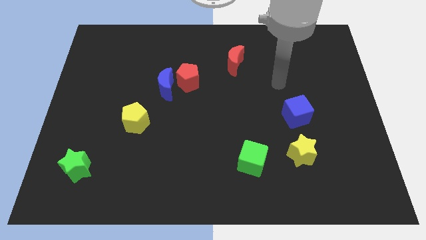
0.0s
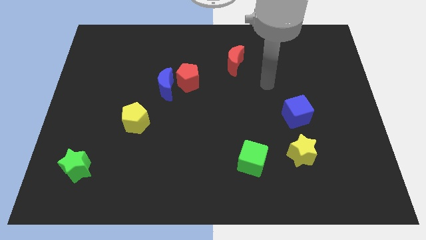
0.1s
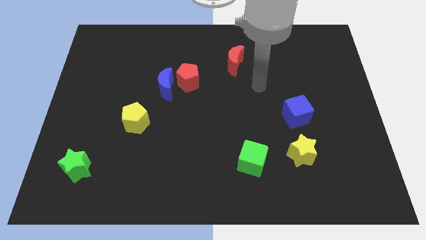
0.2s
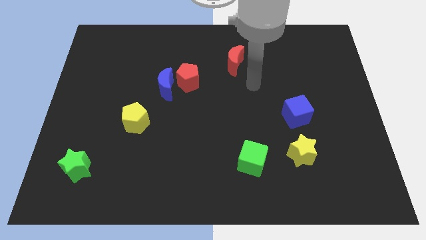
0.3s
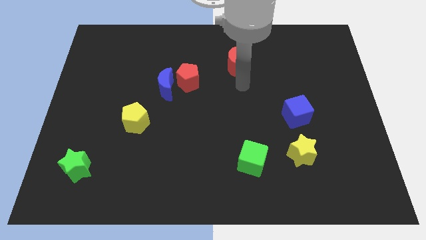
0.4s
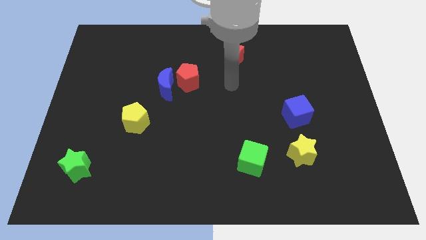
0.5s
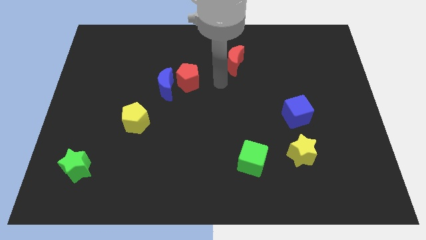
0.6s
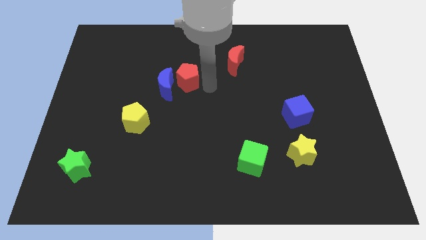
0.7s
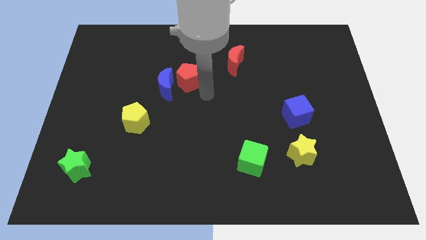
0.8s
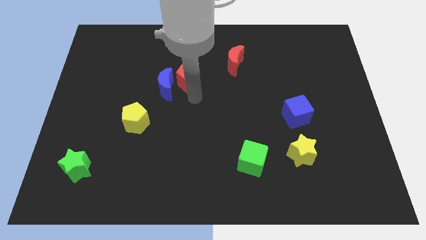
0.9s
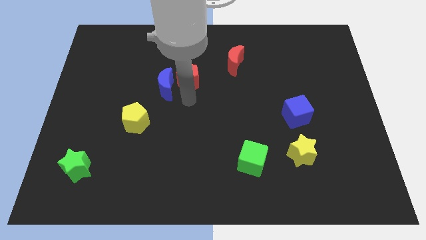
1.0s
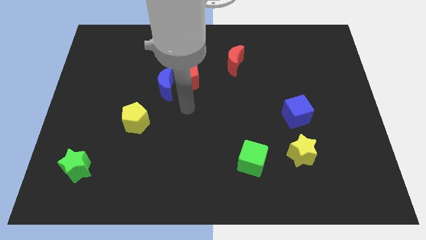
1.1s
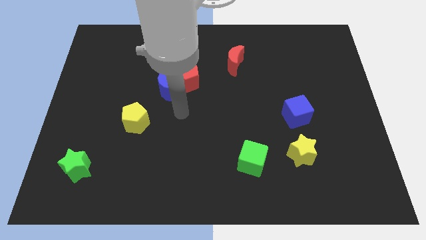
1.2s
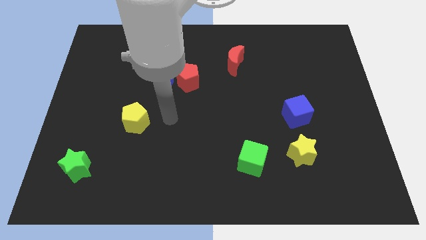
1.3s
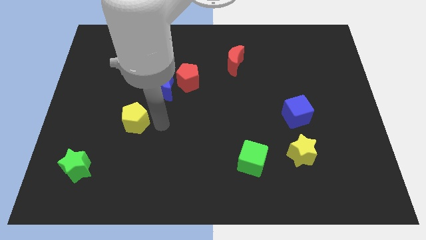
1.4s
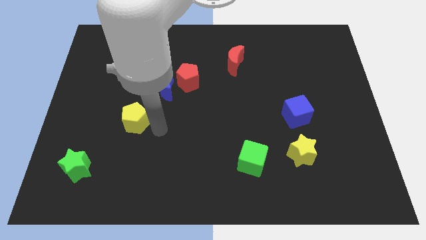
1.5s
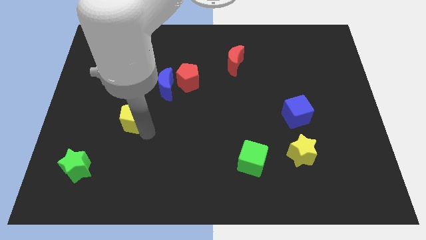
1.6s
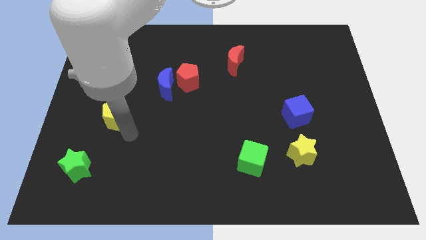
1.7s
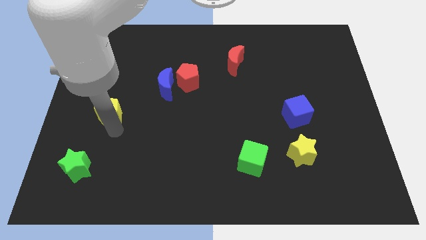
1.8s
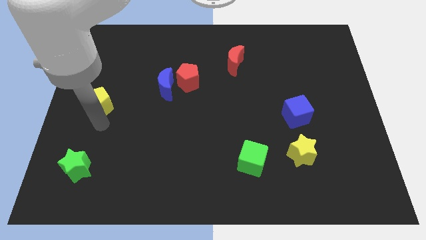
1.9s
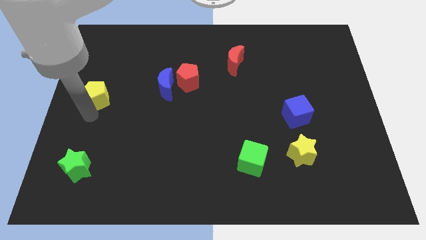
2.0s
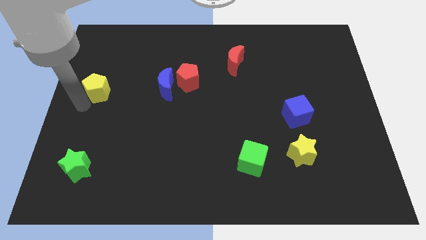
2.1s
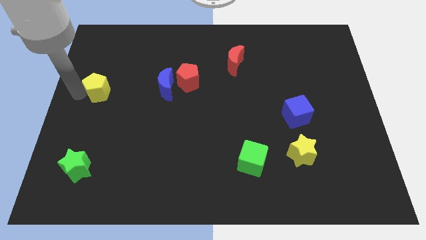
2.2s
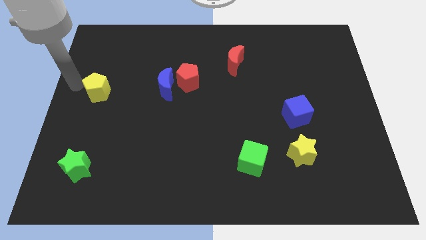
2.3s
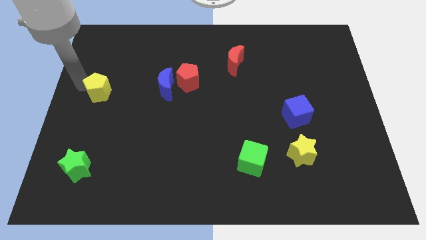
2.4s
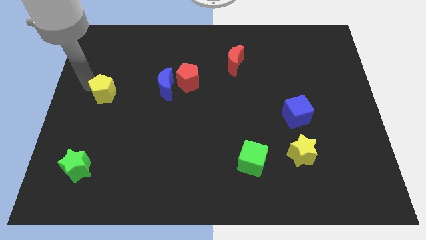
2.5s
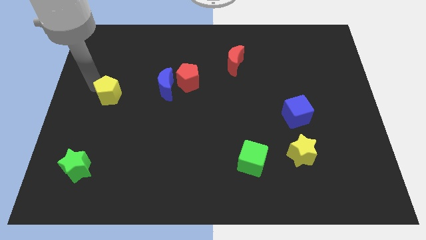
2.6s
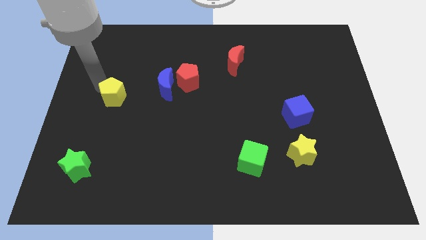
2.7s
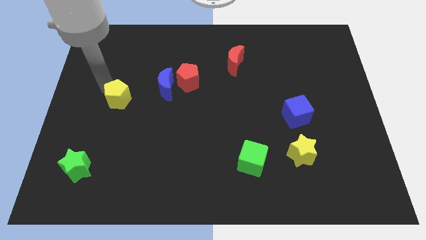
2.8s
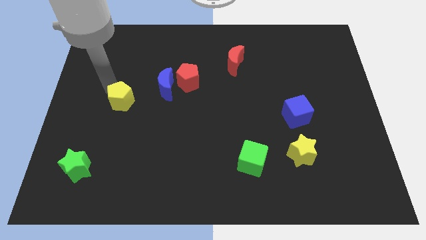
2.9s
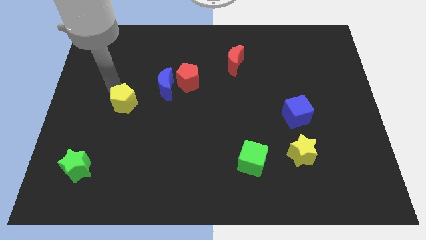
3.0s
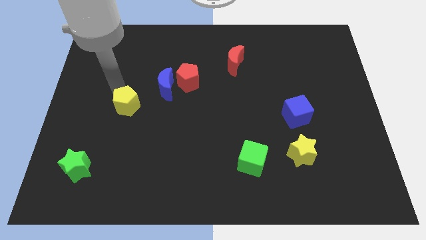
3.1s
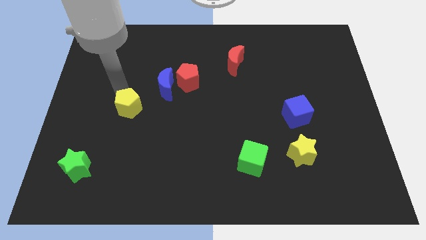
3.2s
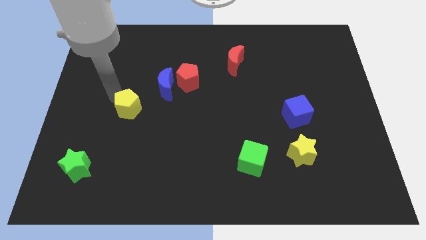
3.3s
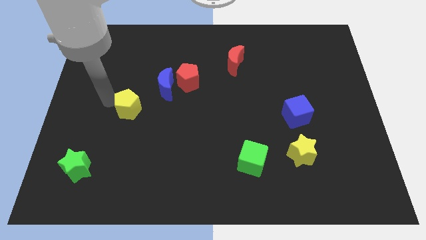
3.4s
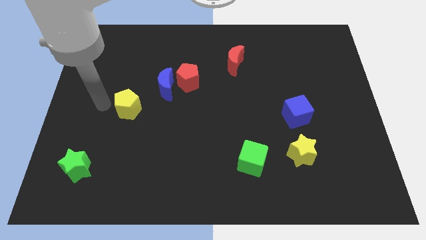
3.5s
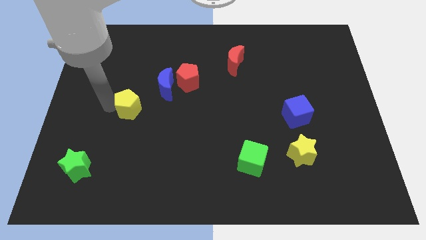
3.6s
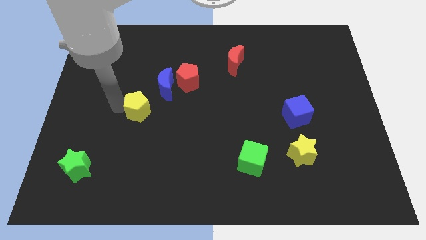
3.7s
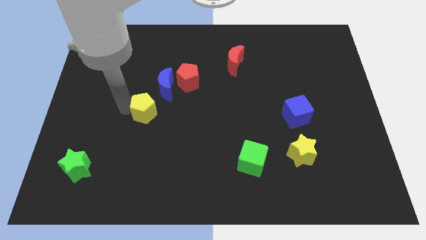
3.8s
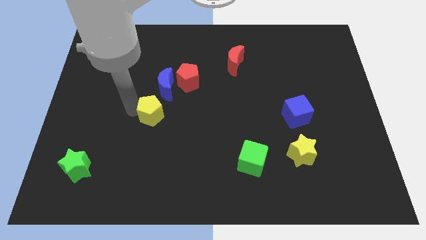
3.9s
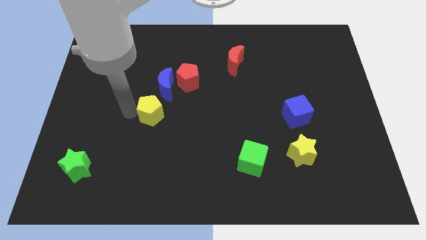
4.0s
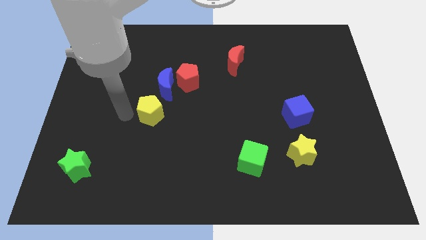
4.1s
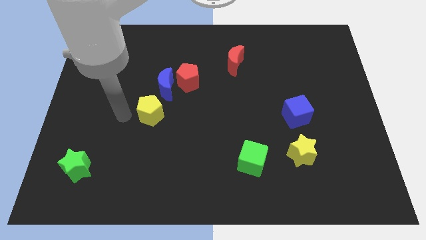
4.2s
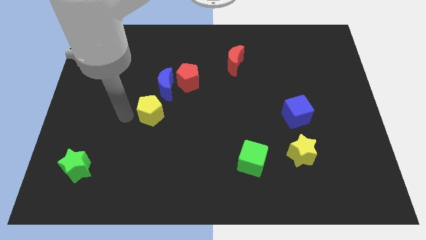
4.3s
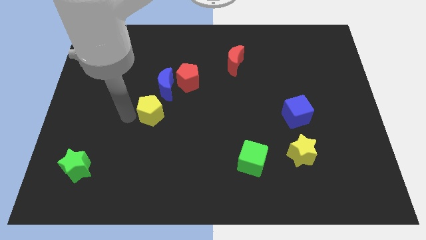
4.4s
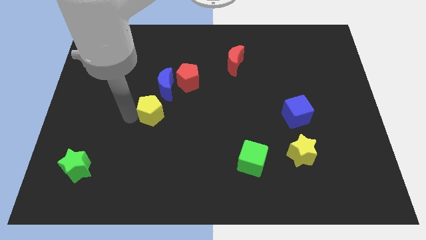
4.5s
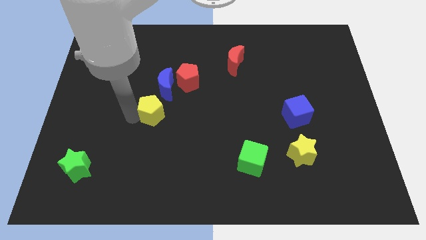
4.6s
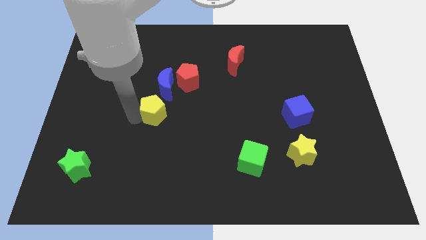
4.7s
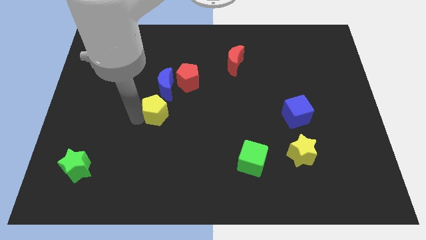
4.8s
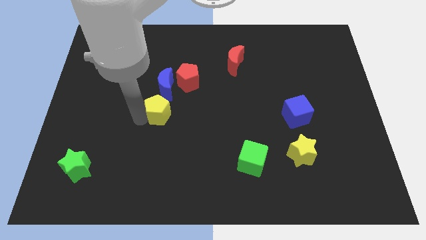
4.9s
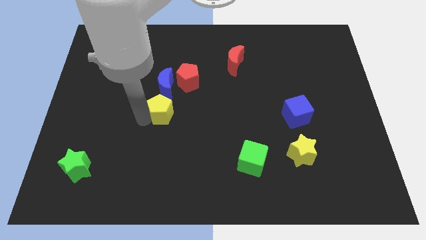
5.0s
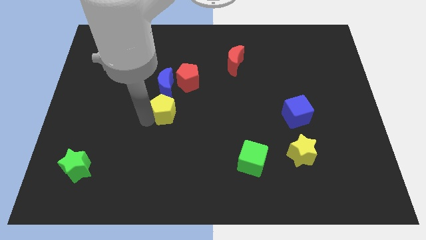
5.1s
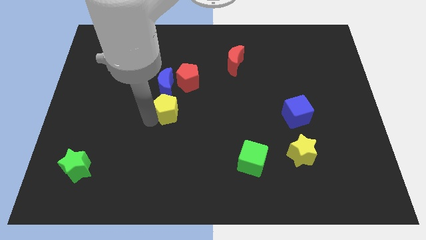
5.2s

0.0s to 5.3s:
move the yellow pentagon diagonally down and to the right of the blue moon

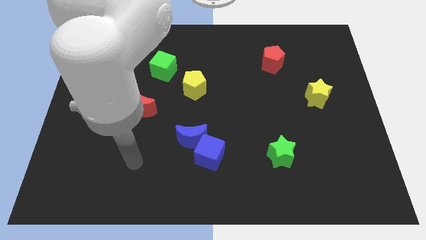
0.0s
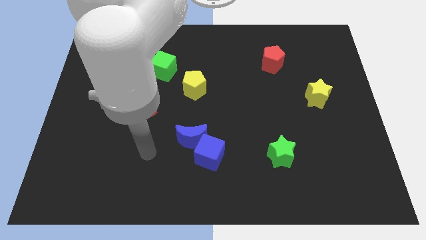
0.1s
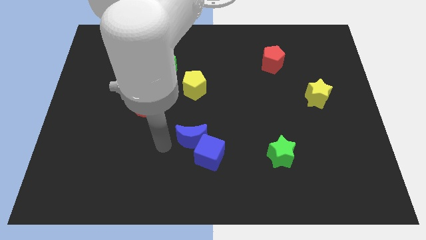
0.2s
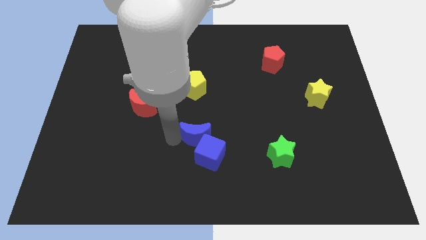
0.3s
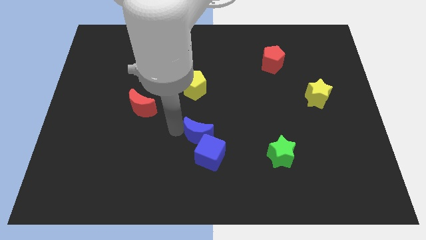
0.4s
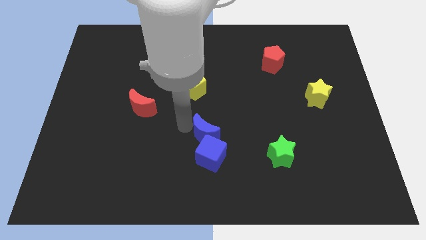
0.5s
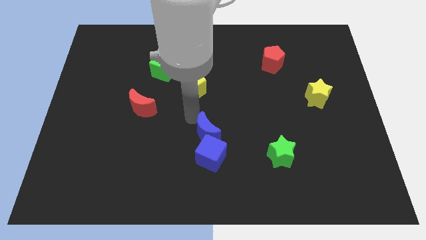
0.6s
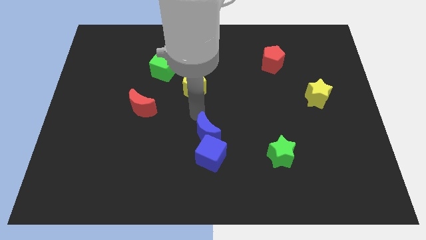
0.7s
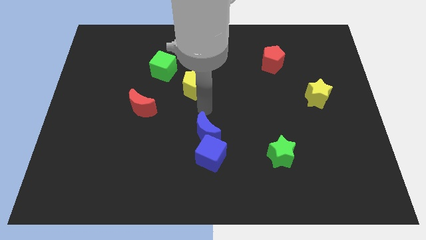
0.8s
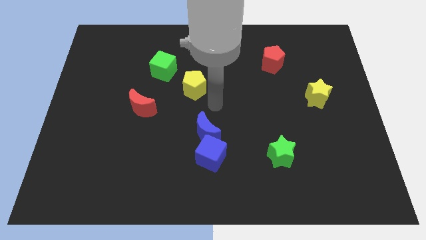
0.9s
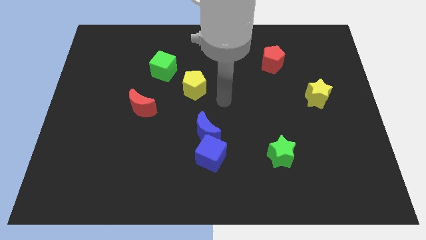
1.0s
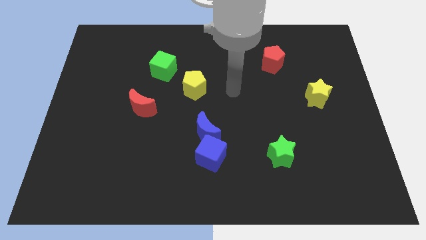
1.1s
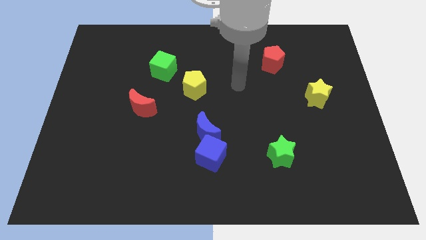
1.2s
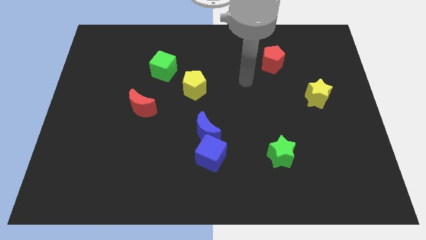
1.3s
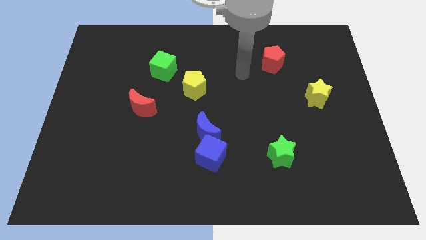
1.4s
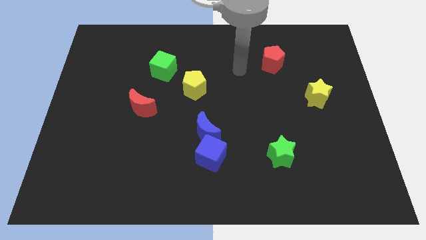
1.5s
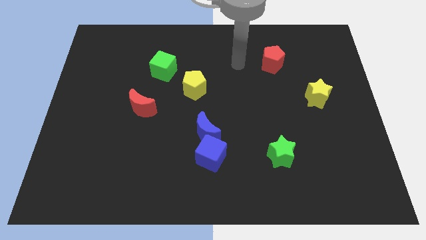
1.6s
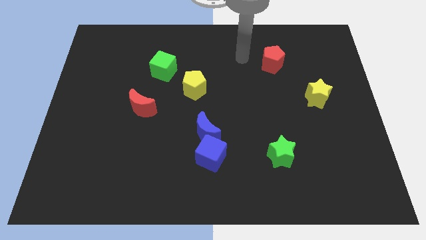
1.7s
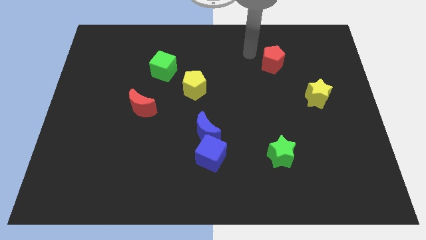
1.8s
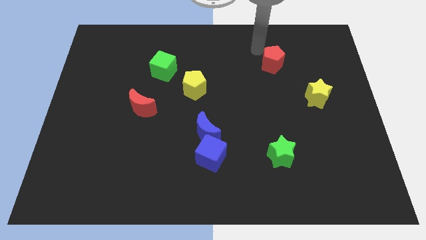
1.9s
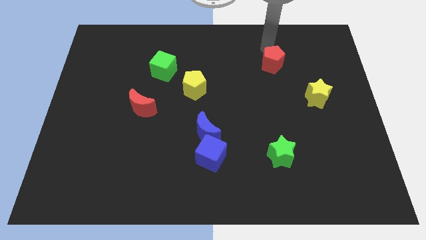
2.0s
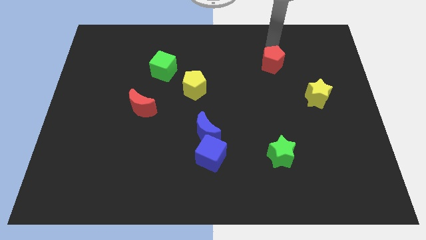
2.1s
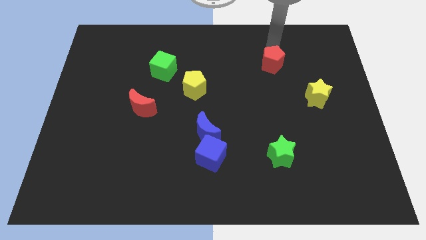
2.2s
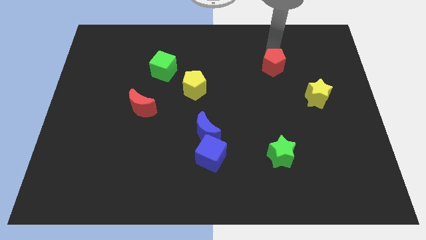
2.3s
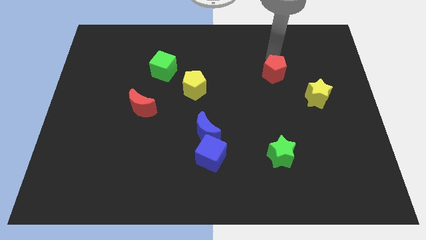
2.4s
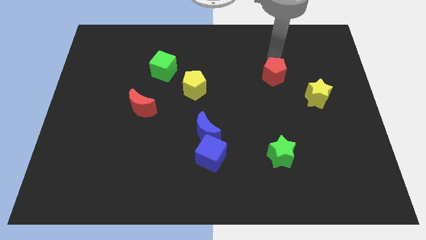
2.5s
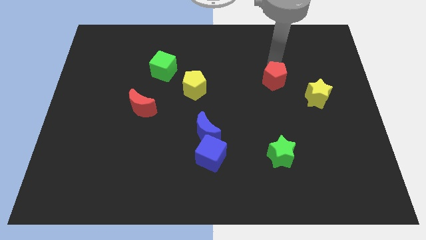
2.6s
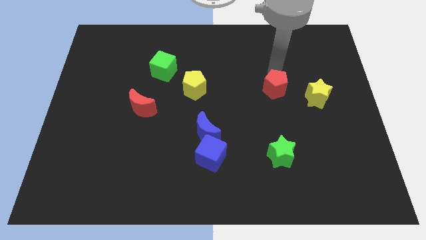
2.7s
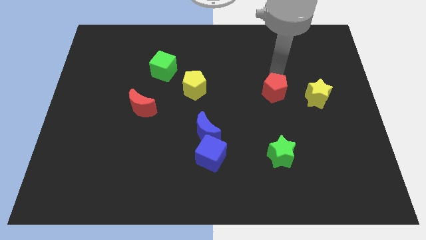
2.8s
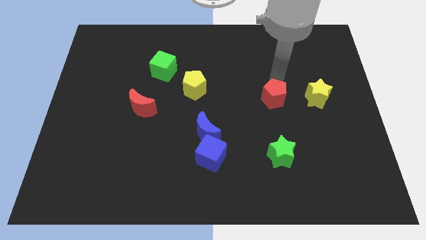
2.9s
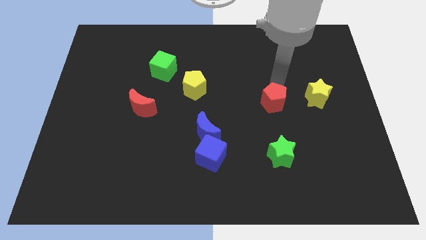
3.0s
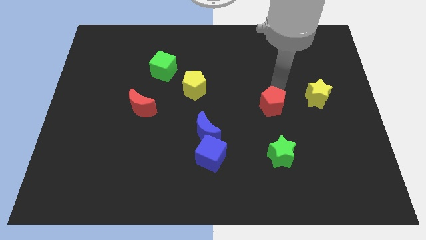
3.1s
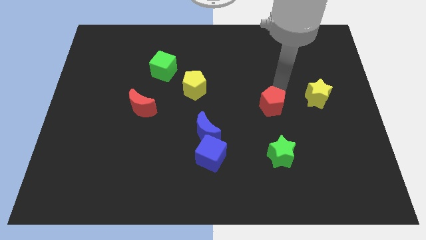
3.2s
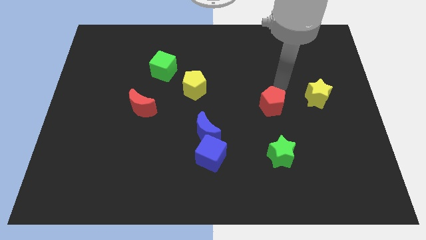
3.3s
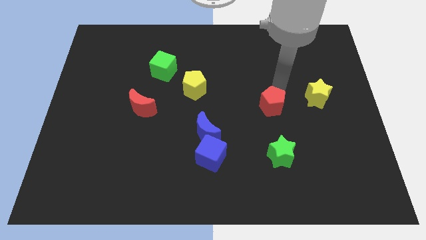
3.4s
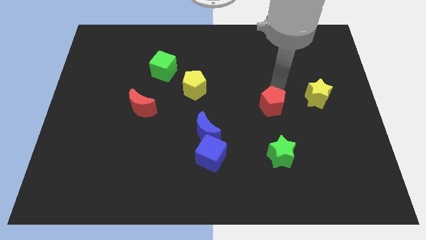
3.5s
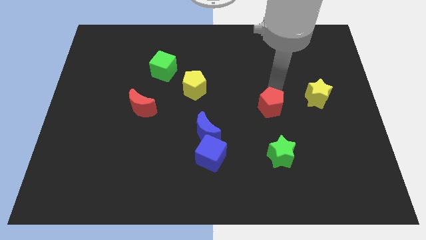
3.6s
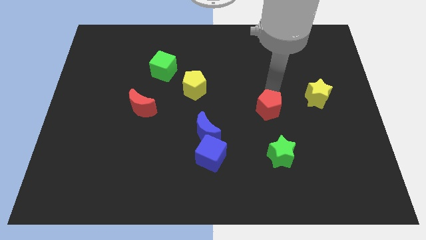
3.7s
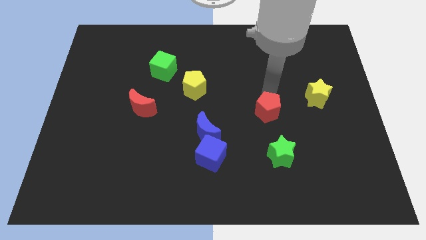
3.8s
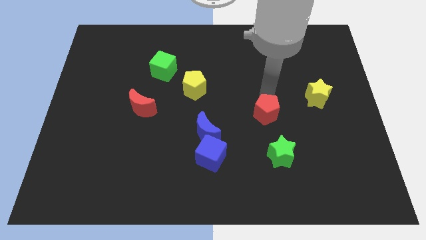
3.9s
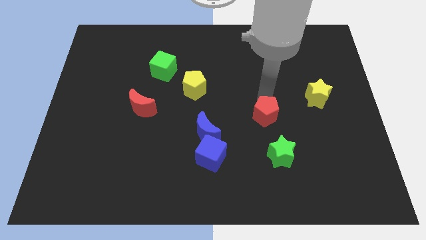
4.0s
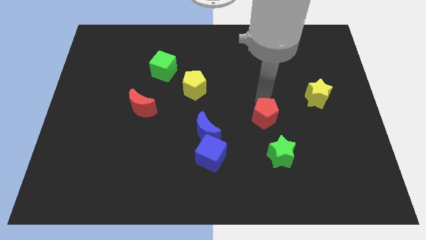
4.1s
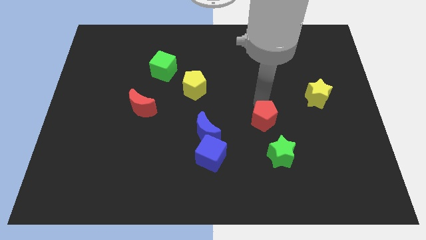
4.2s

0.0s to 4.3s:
move the red pentagon to the top left of the green star
